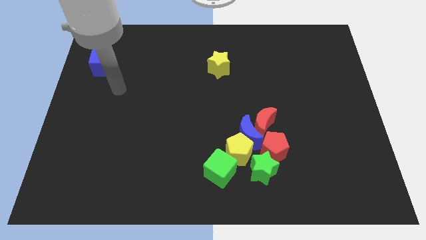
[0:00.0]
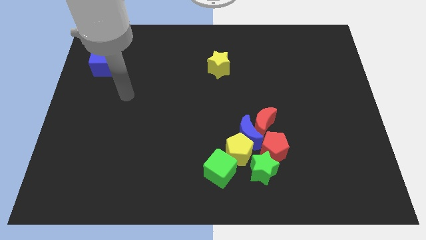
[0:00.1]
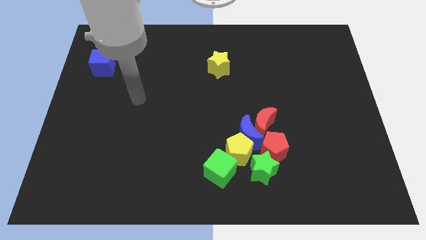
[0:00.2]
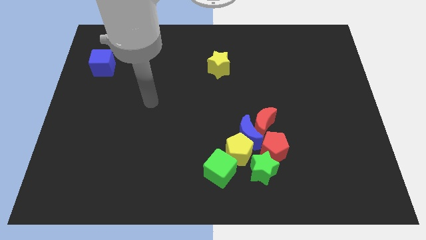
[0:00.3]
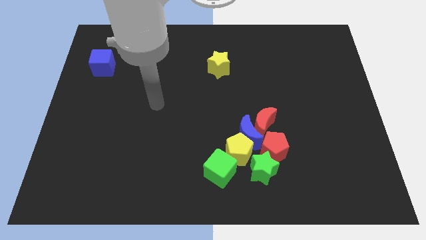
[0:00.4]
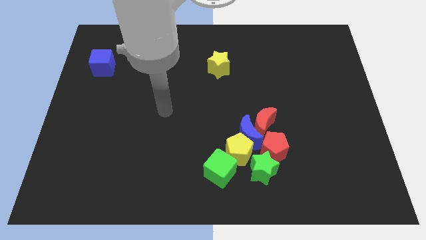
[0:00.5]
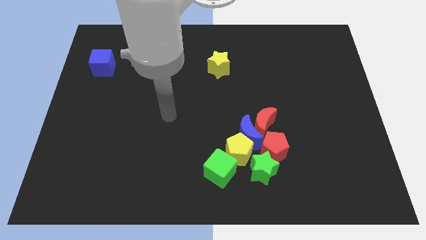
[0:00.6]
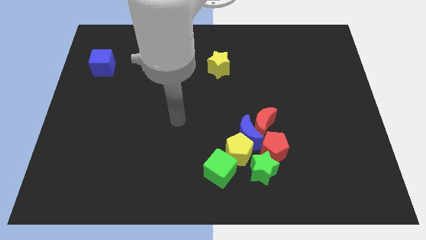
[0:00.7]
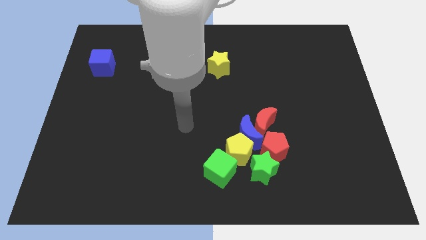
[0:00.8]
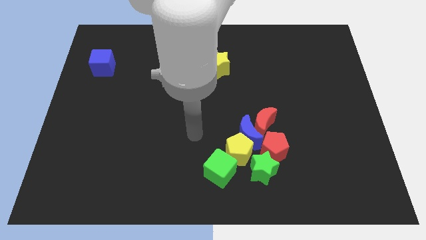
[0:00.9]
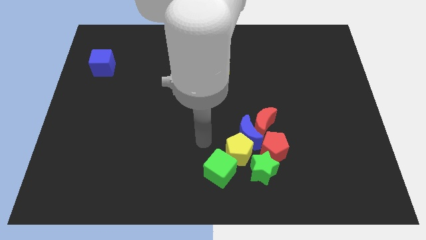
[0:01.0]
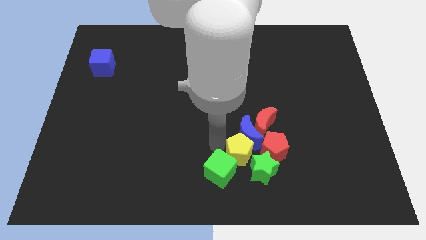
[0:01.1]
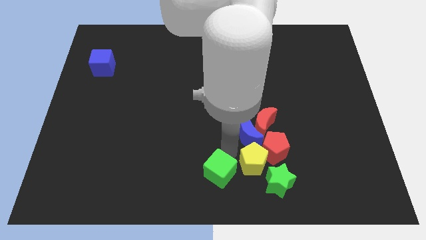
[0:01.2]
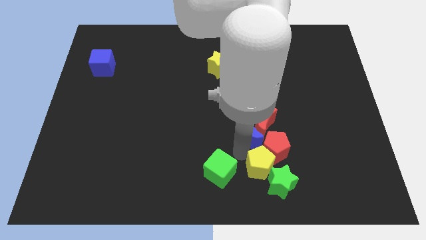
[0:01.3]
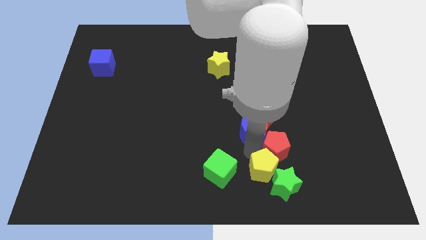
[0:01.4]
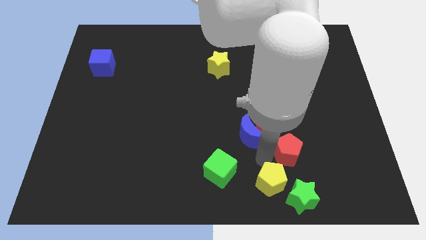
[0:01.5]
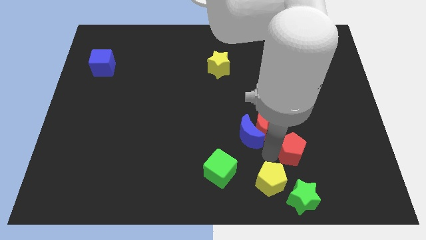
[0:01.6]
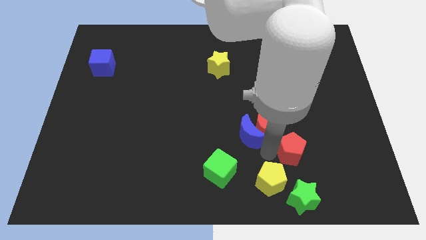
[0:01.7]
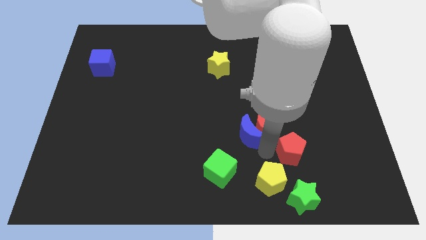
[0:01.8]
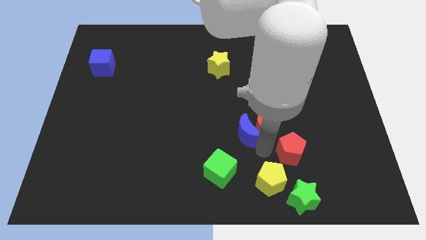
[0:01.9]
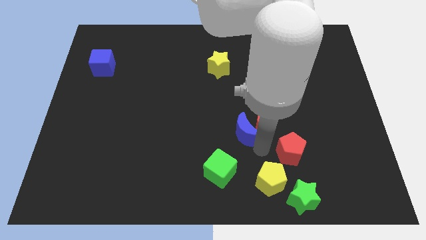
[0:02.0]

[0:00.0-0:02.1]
separate the blue moon from the group of blocks

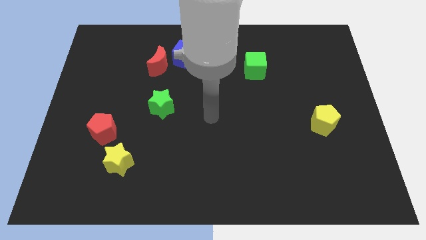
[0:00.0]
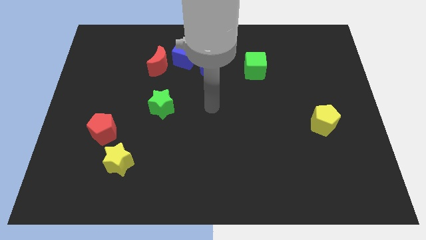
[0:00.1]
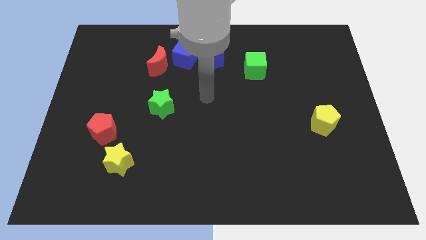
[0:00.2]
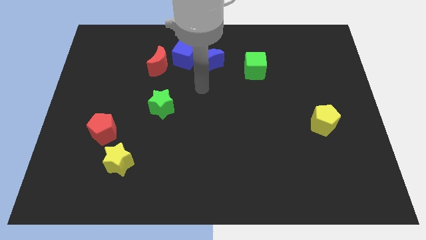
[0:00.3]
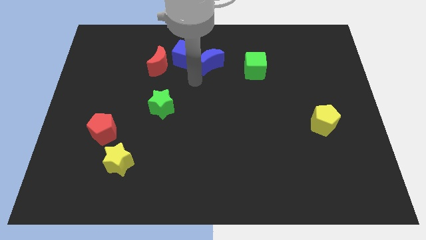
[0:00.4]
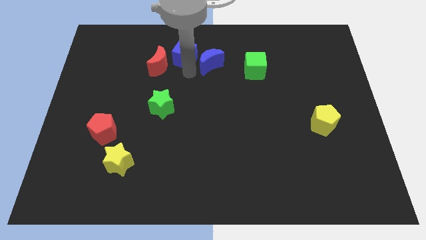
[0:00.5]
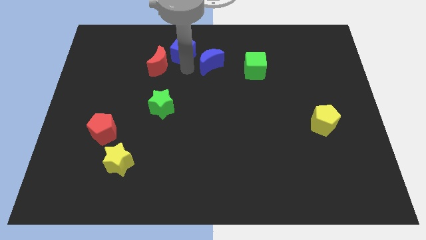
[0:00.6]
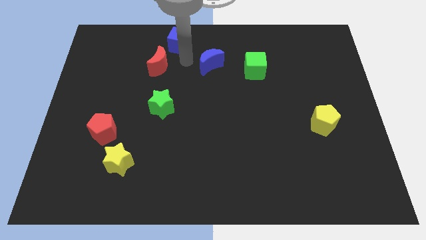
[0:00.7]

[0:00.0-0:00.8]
move the blue moon away from the blue cube

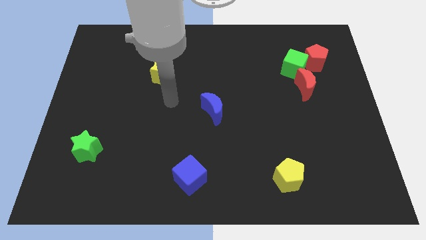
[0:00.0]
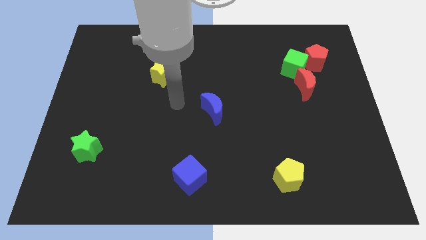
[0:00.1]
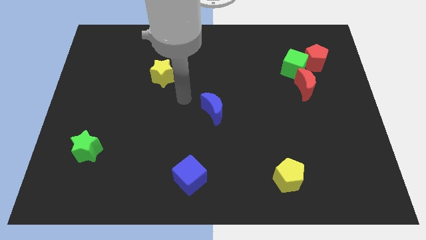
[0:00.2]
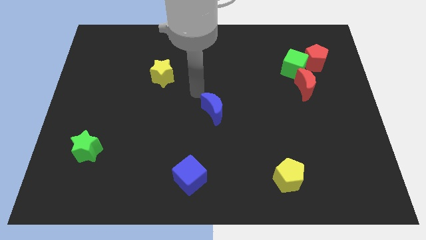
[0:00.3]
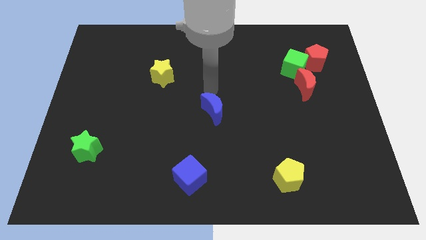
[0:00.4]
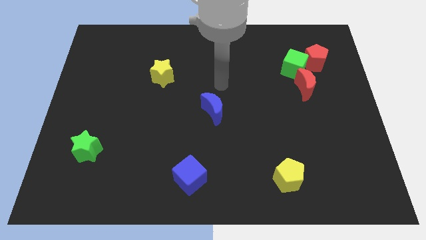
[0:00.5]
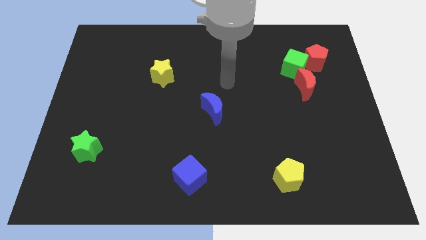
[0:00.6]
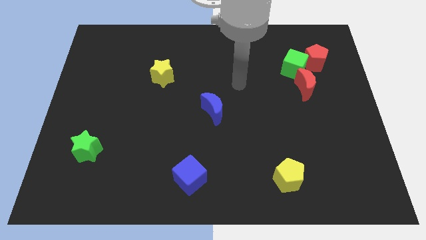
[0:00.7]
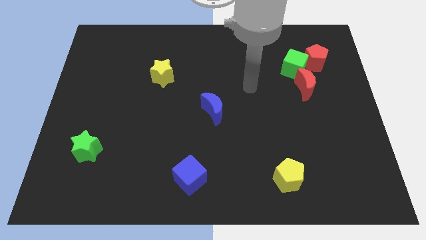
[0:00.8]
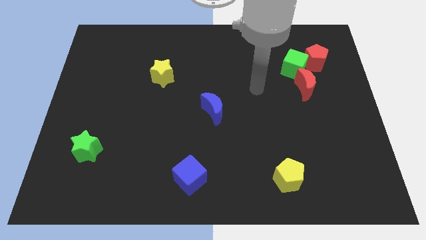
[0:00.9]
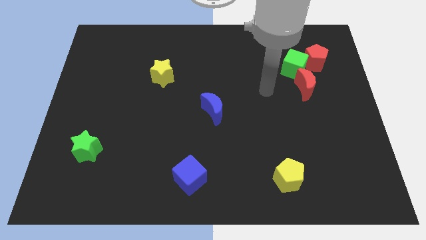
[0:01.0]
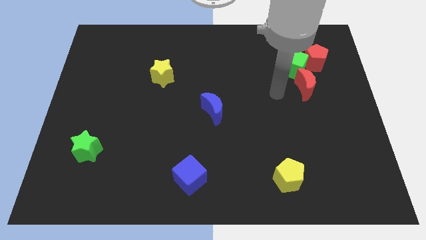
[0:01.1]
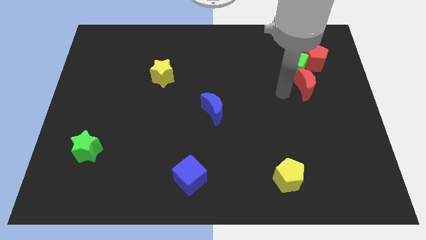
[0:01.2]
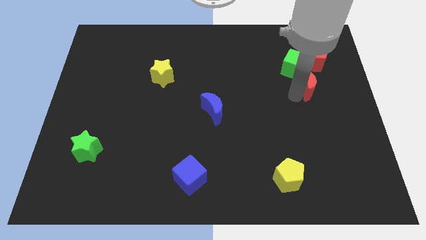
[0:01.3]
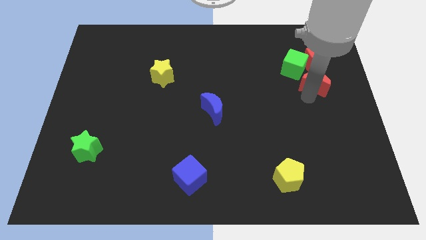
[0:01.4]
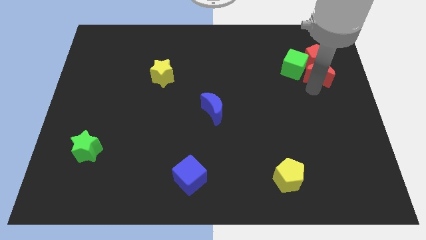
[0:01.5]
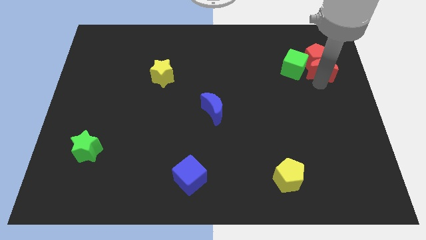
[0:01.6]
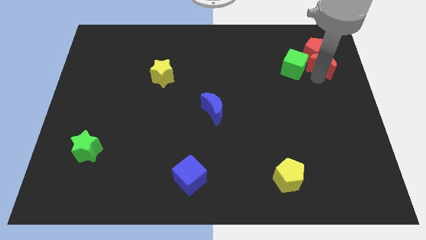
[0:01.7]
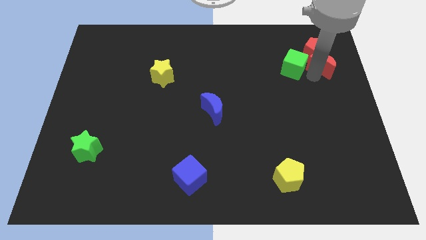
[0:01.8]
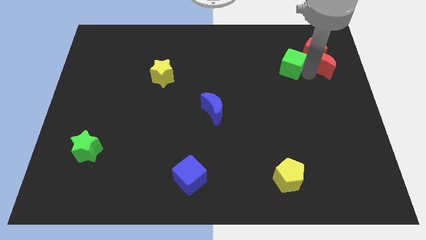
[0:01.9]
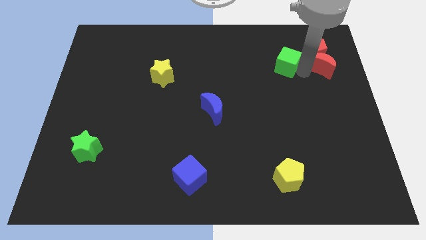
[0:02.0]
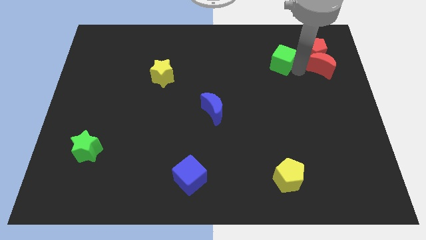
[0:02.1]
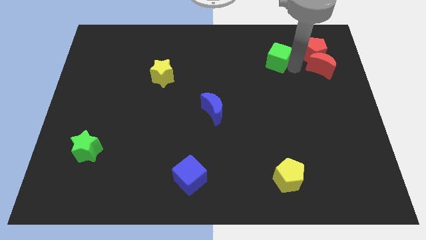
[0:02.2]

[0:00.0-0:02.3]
separate the green cube from the red pentagon and red moon

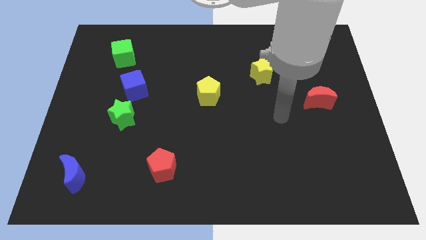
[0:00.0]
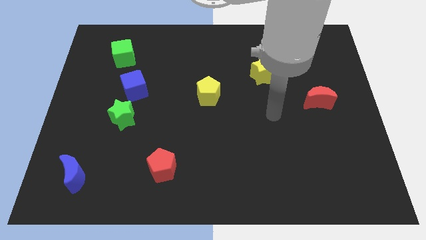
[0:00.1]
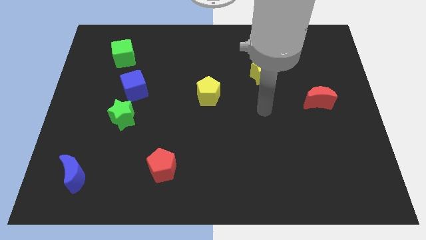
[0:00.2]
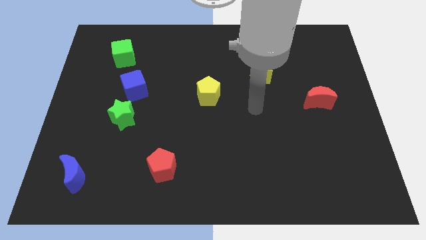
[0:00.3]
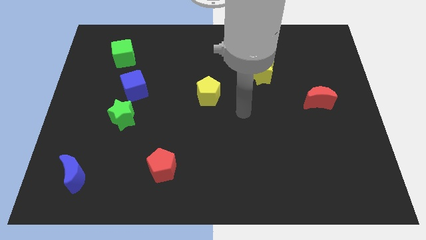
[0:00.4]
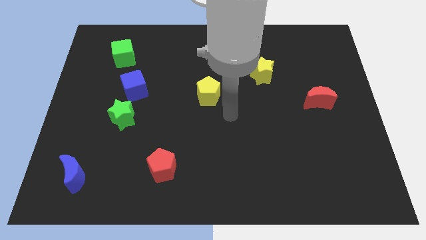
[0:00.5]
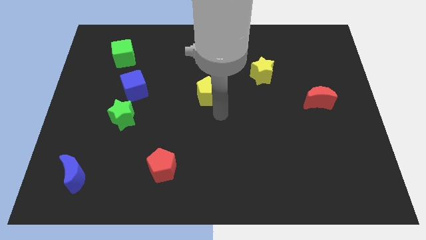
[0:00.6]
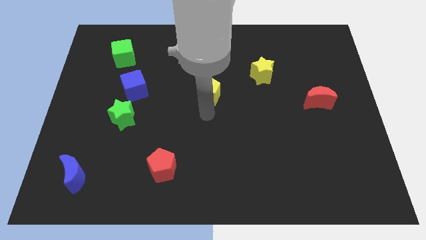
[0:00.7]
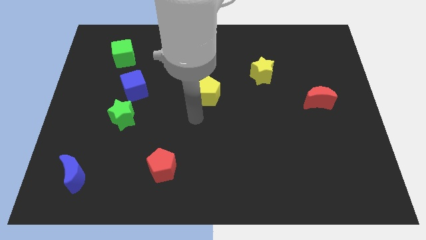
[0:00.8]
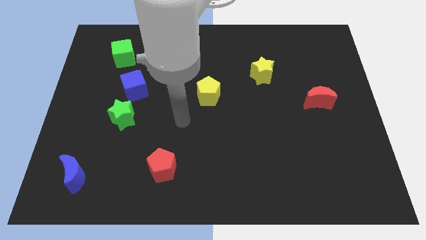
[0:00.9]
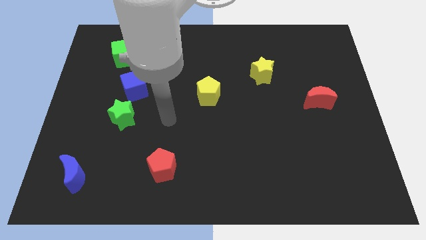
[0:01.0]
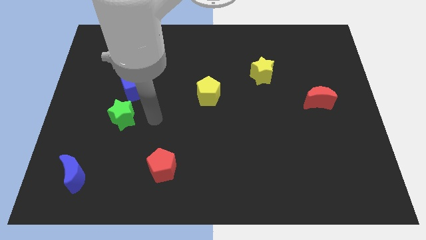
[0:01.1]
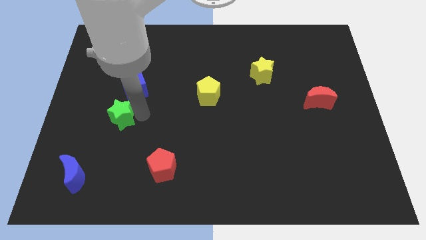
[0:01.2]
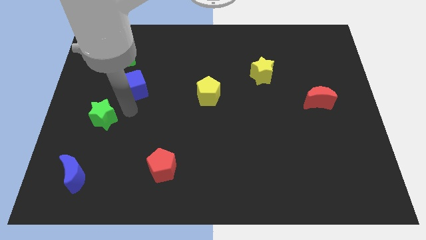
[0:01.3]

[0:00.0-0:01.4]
move the blue cube away from the green star

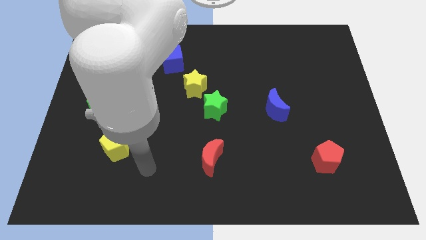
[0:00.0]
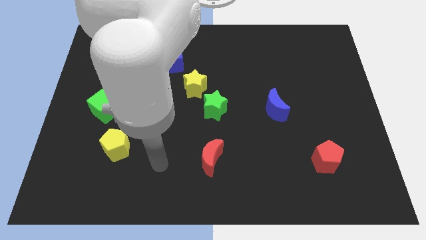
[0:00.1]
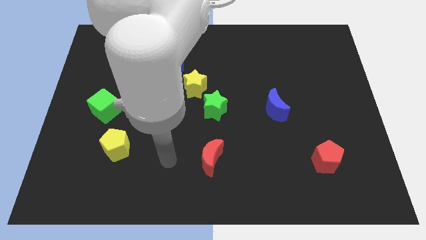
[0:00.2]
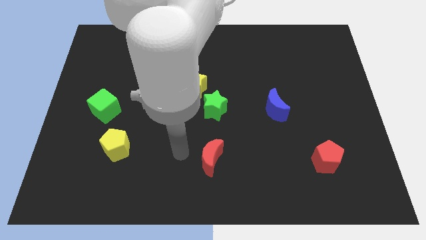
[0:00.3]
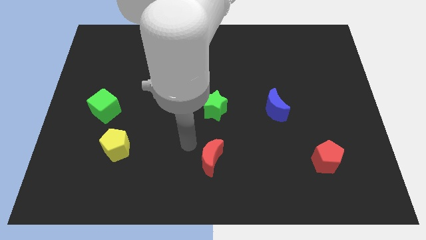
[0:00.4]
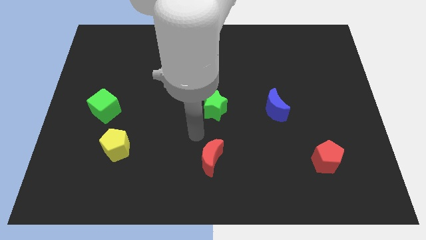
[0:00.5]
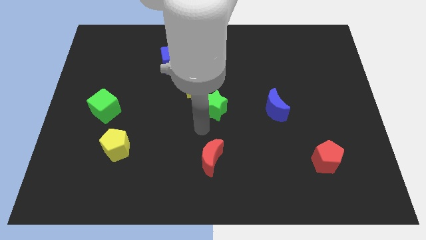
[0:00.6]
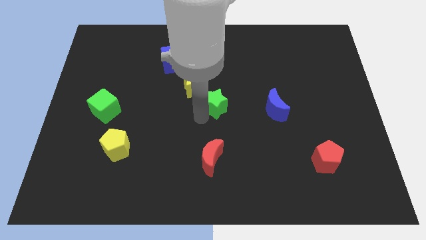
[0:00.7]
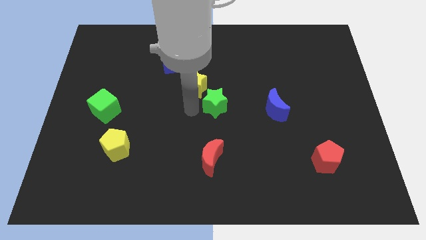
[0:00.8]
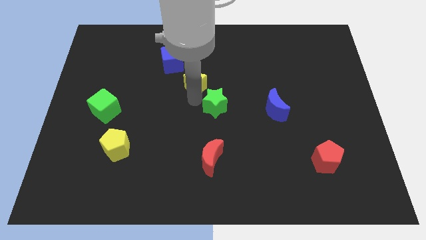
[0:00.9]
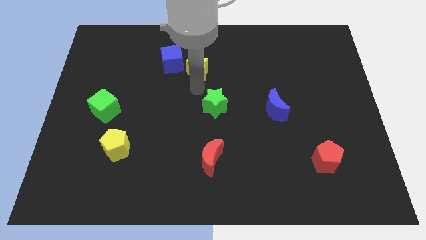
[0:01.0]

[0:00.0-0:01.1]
pull the green star apart from the yellow star

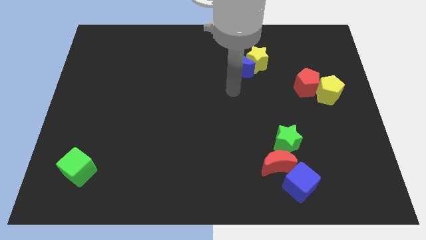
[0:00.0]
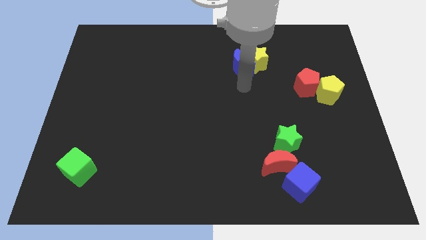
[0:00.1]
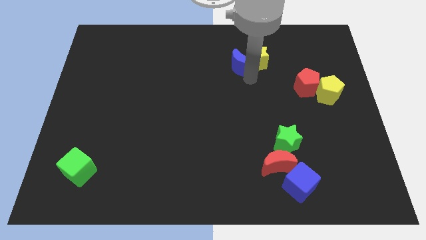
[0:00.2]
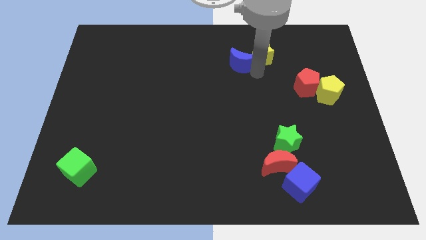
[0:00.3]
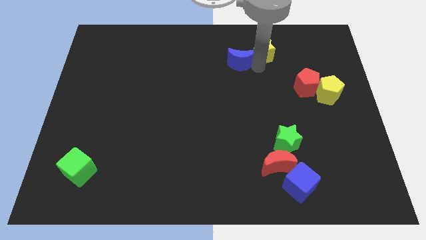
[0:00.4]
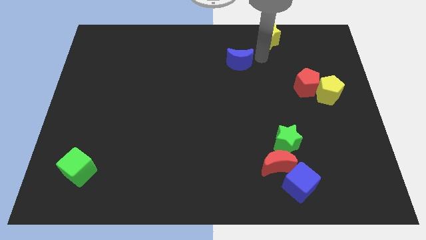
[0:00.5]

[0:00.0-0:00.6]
pull the blue moon apart from the yellow star

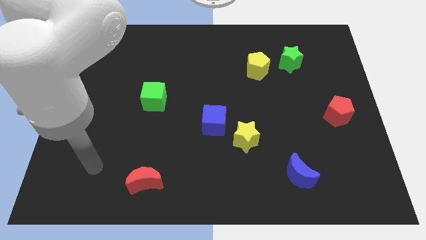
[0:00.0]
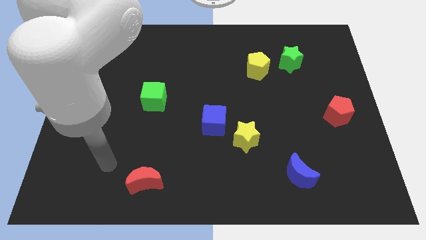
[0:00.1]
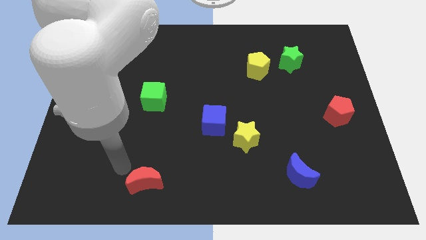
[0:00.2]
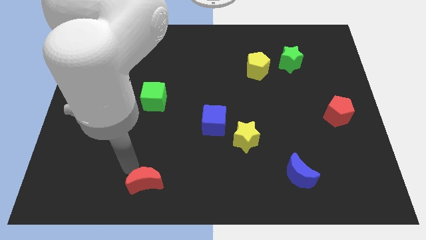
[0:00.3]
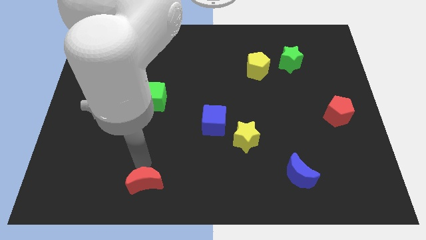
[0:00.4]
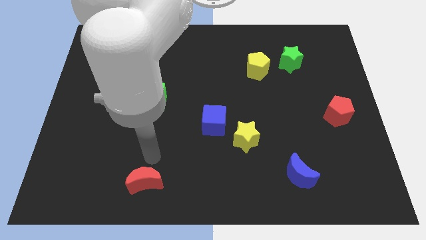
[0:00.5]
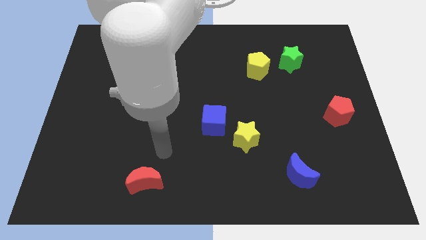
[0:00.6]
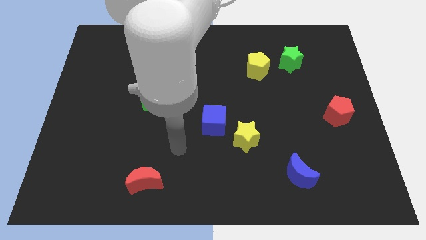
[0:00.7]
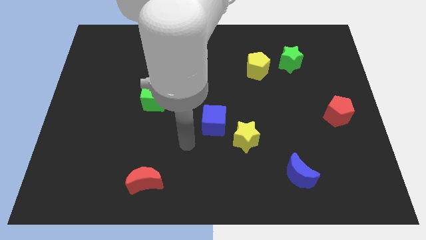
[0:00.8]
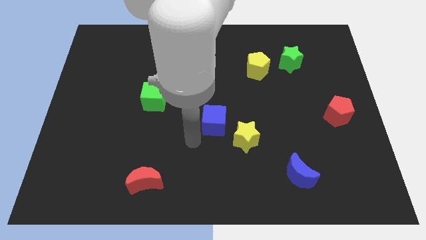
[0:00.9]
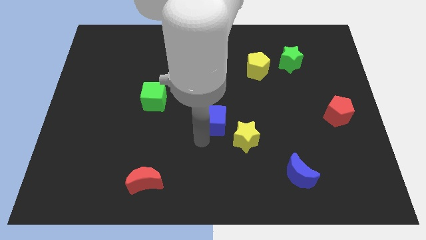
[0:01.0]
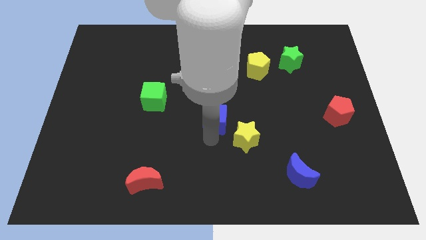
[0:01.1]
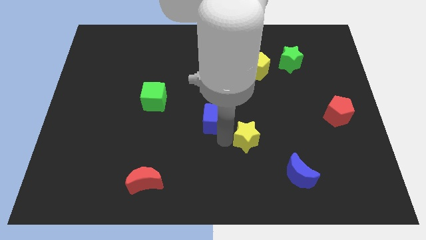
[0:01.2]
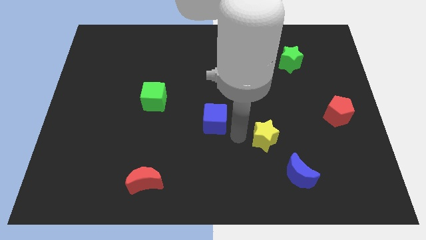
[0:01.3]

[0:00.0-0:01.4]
move the blue cube away from the yellow star
